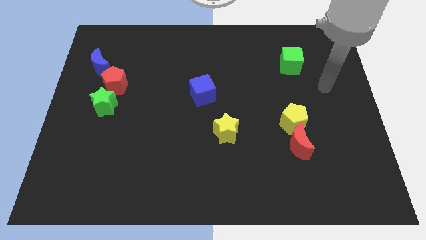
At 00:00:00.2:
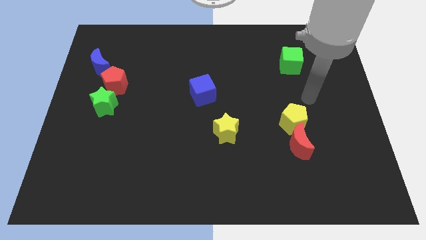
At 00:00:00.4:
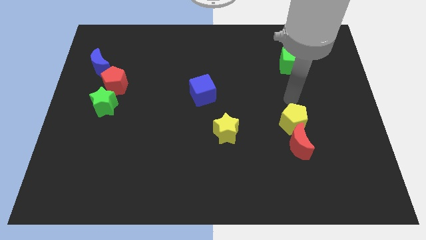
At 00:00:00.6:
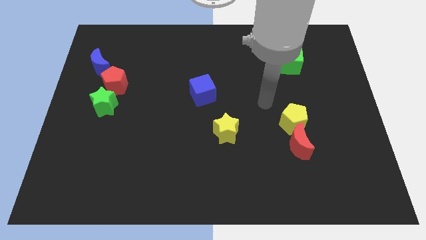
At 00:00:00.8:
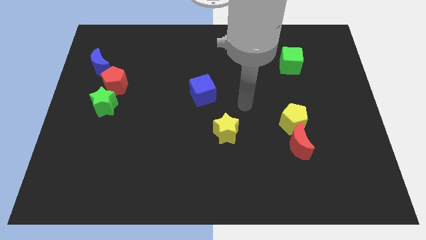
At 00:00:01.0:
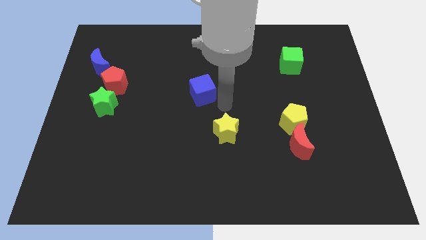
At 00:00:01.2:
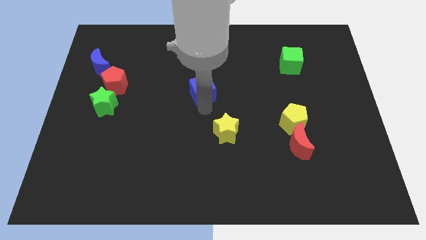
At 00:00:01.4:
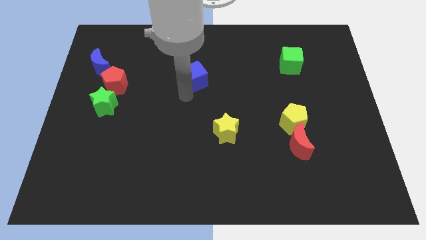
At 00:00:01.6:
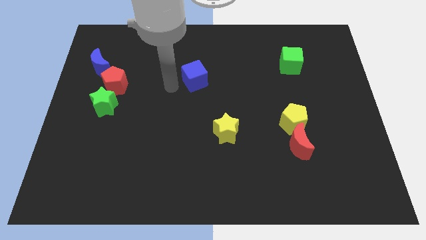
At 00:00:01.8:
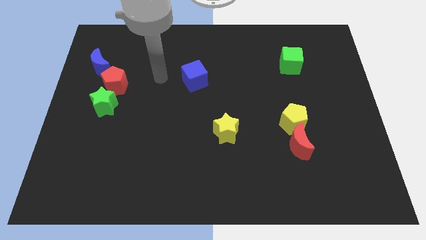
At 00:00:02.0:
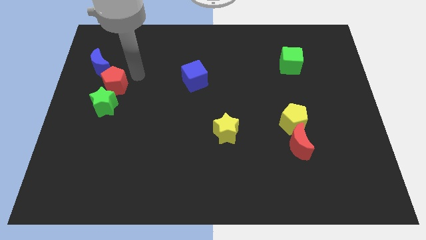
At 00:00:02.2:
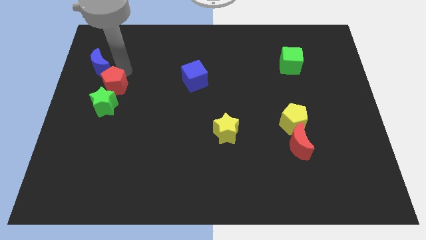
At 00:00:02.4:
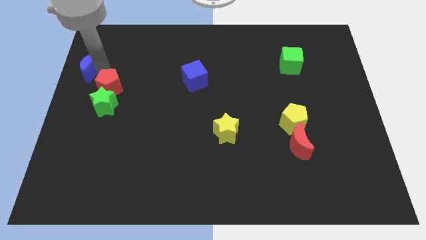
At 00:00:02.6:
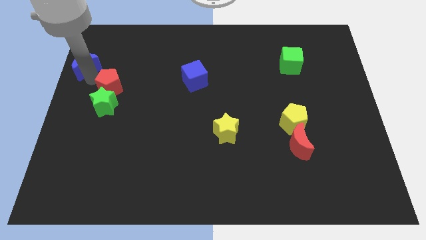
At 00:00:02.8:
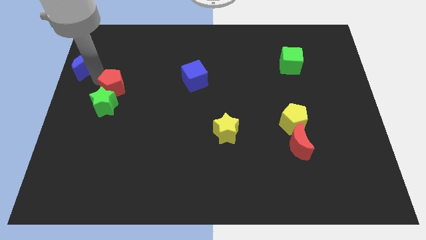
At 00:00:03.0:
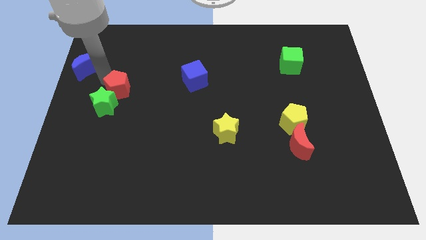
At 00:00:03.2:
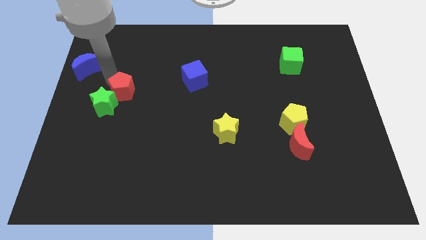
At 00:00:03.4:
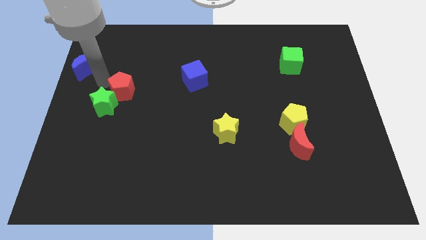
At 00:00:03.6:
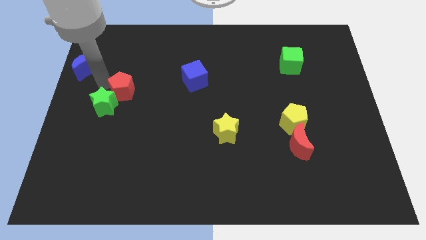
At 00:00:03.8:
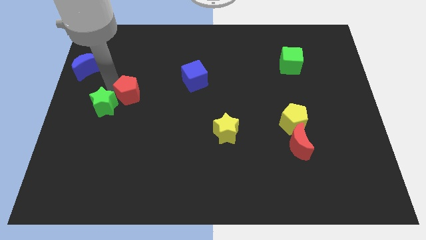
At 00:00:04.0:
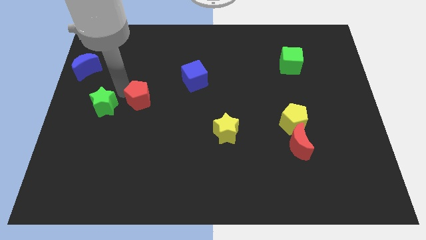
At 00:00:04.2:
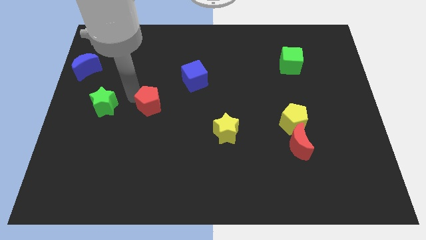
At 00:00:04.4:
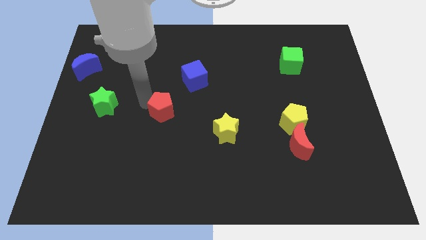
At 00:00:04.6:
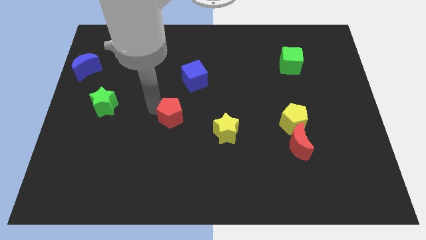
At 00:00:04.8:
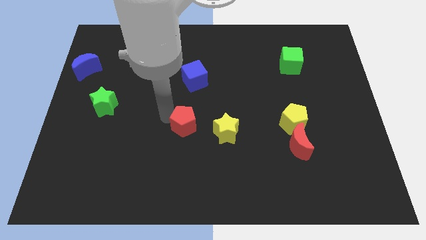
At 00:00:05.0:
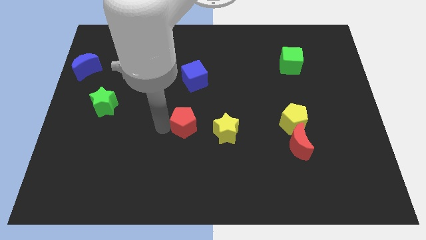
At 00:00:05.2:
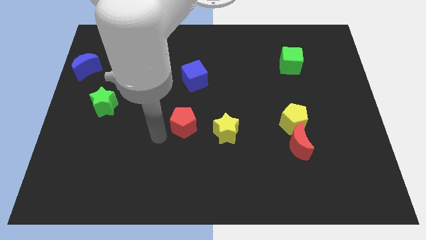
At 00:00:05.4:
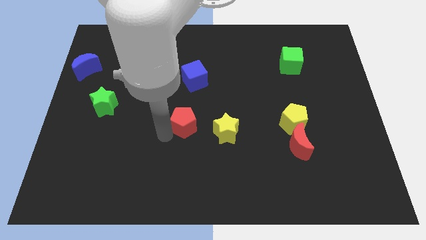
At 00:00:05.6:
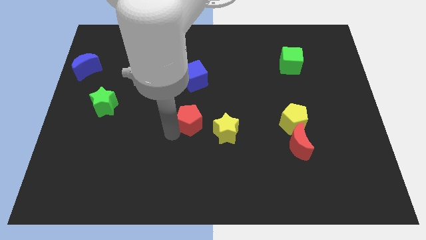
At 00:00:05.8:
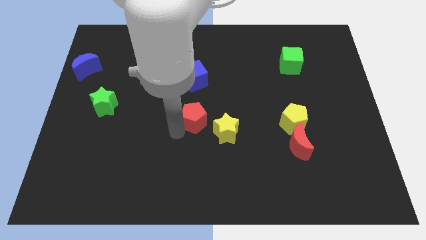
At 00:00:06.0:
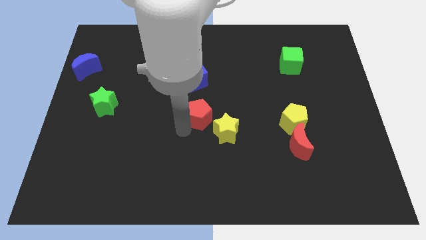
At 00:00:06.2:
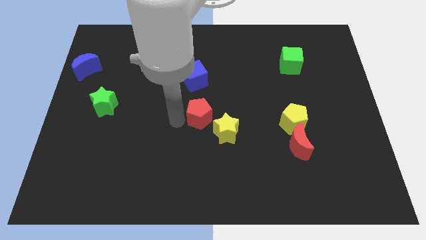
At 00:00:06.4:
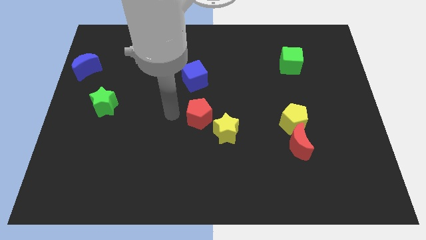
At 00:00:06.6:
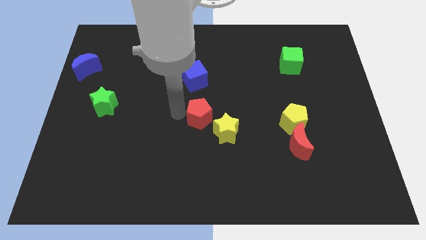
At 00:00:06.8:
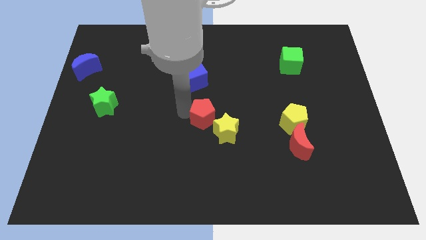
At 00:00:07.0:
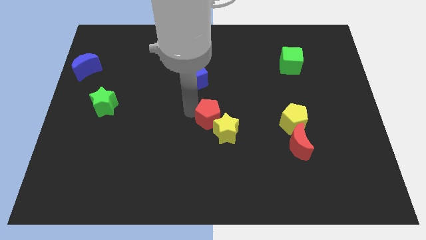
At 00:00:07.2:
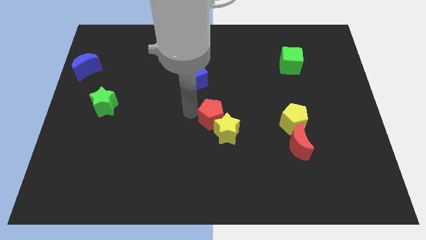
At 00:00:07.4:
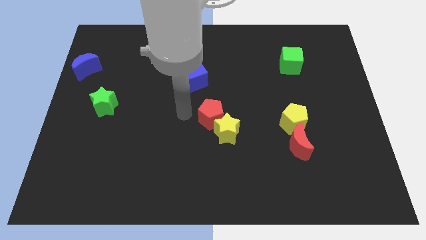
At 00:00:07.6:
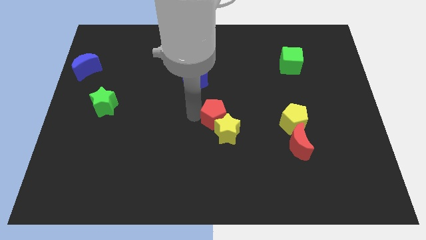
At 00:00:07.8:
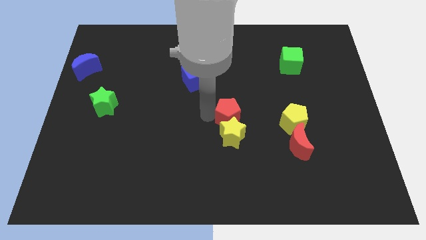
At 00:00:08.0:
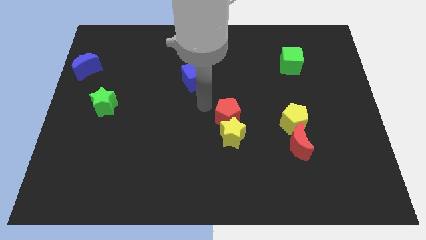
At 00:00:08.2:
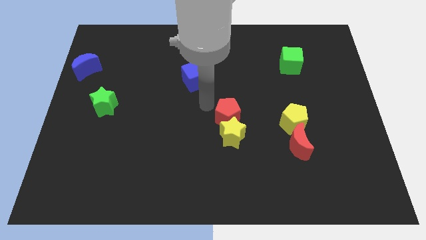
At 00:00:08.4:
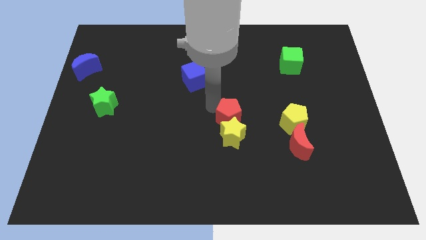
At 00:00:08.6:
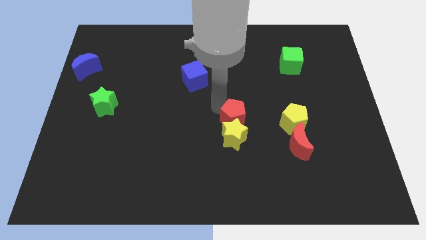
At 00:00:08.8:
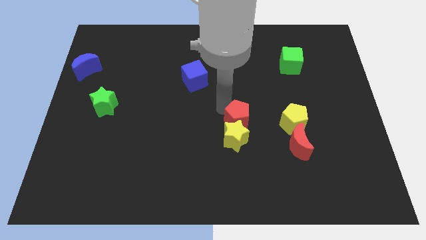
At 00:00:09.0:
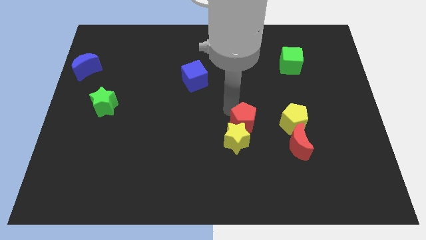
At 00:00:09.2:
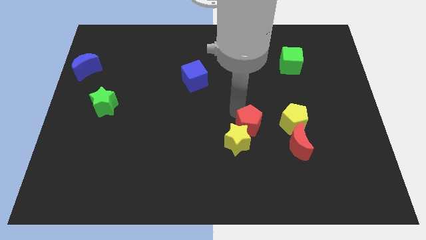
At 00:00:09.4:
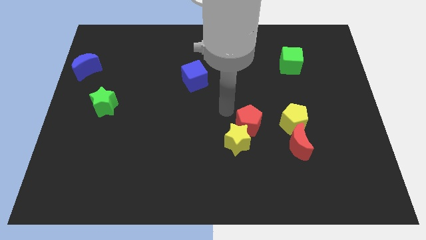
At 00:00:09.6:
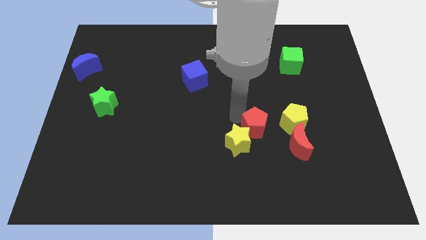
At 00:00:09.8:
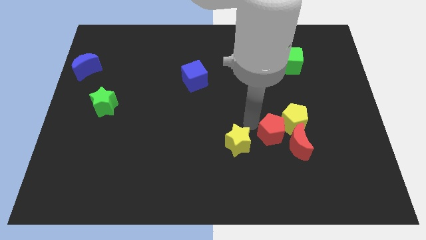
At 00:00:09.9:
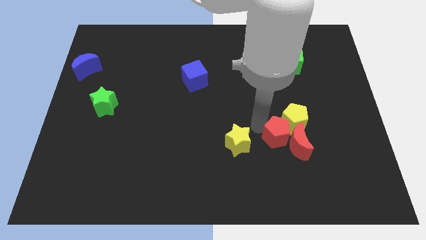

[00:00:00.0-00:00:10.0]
move the red pentagon towards the red moon
